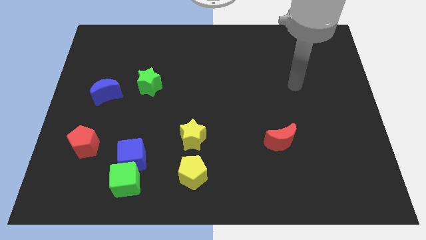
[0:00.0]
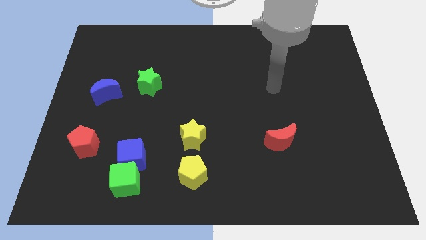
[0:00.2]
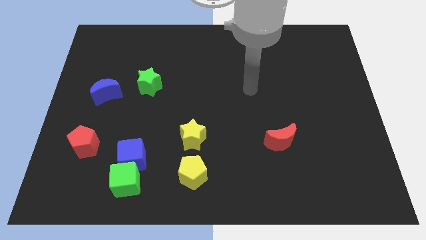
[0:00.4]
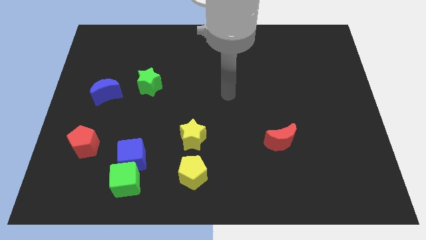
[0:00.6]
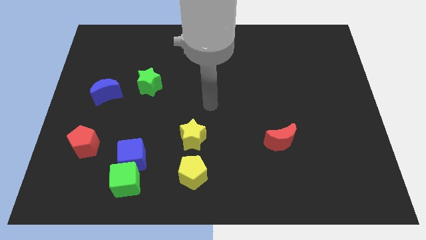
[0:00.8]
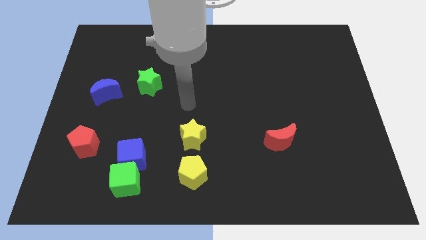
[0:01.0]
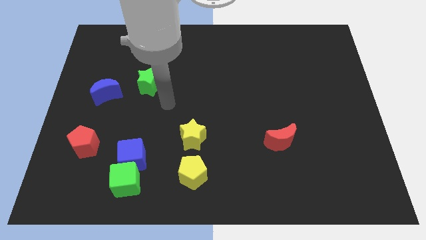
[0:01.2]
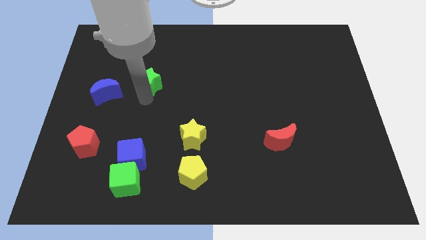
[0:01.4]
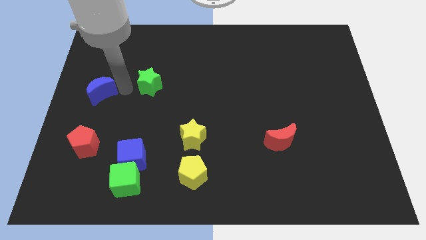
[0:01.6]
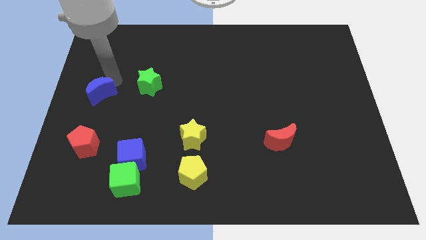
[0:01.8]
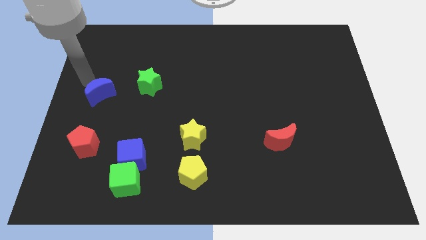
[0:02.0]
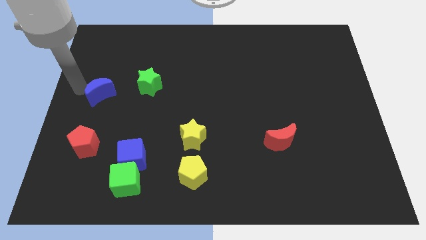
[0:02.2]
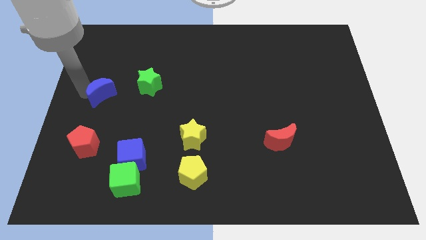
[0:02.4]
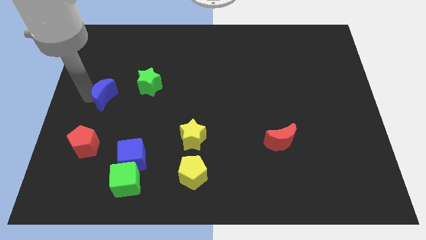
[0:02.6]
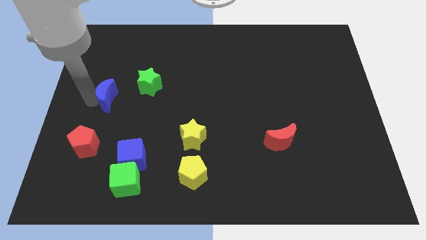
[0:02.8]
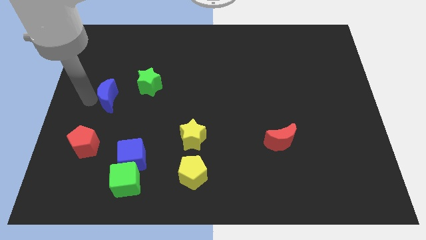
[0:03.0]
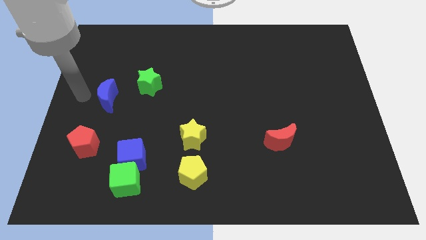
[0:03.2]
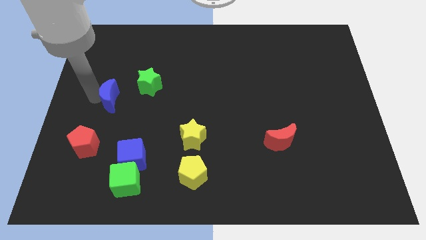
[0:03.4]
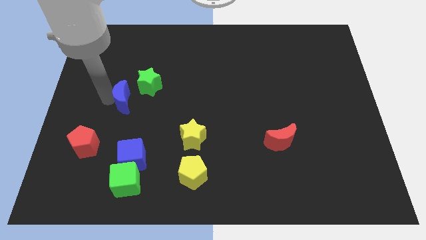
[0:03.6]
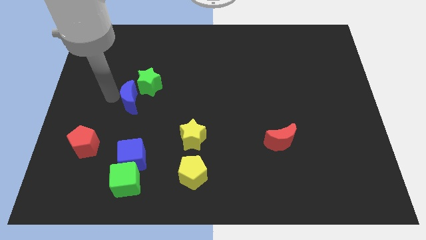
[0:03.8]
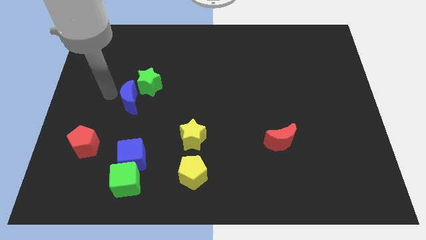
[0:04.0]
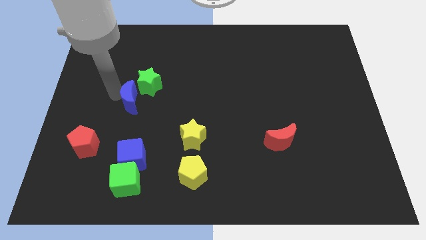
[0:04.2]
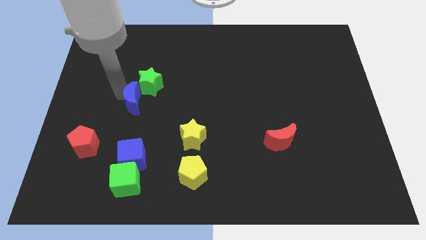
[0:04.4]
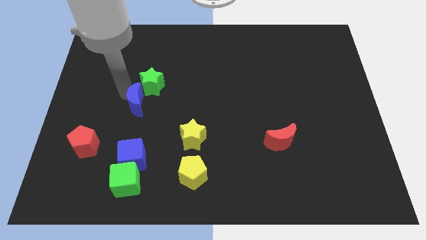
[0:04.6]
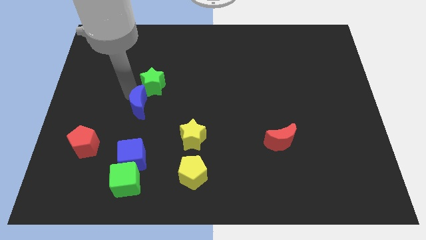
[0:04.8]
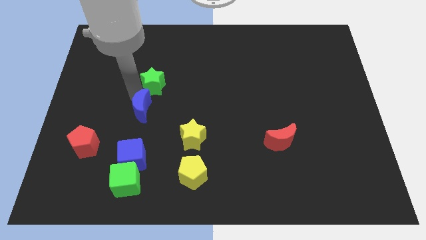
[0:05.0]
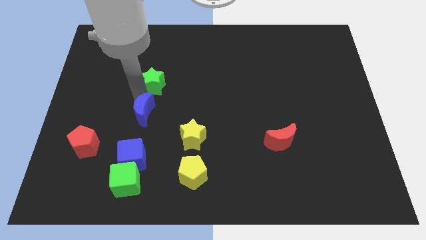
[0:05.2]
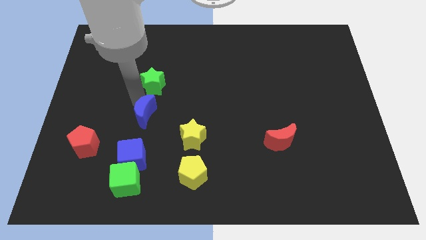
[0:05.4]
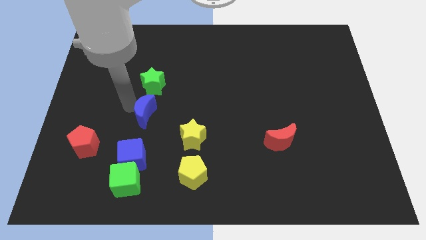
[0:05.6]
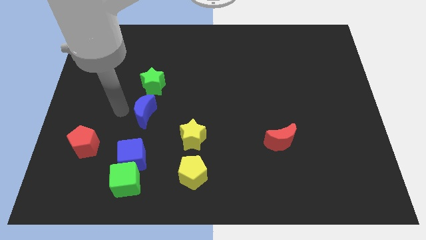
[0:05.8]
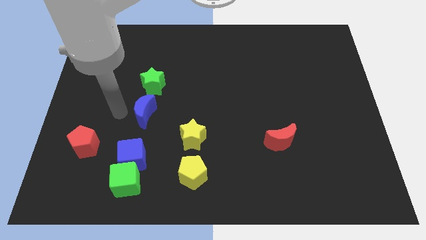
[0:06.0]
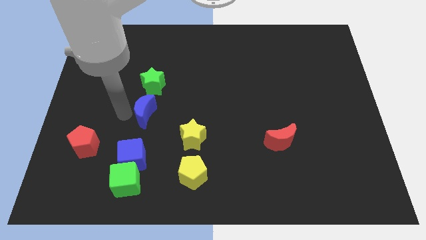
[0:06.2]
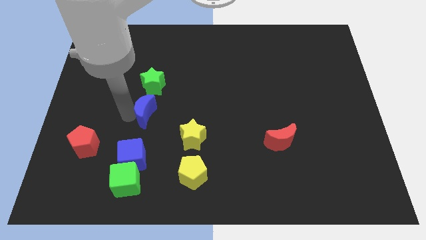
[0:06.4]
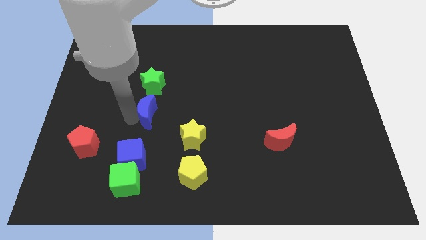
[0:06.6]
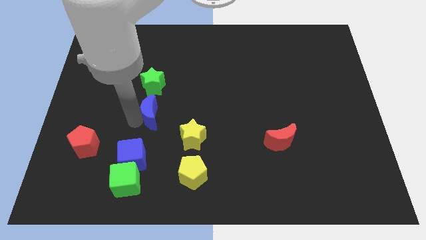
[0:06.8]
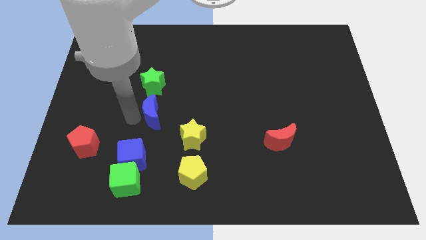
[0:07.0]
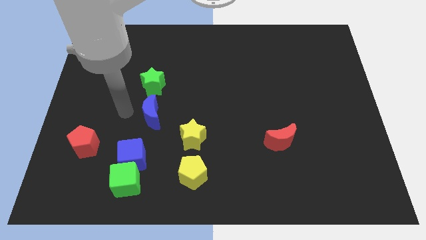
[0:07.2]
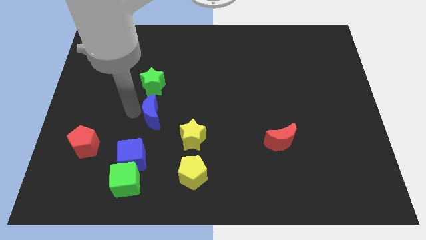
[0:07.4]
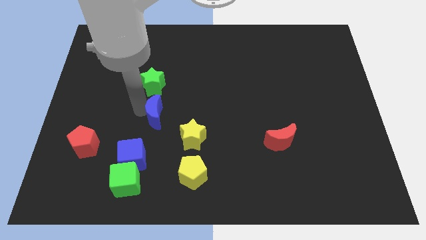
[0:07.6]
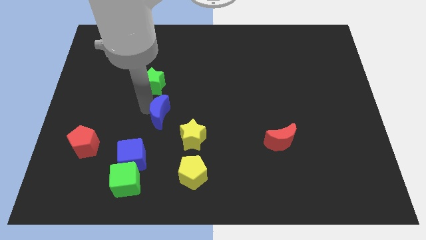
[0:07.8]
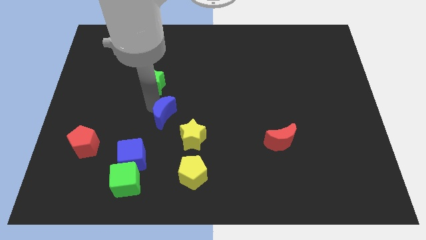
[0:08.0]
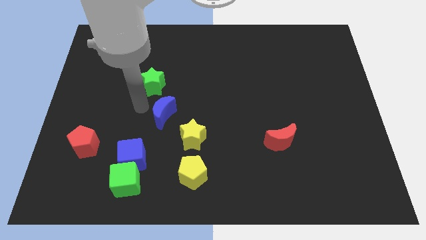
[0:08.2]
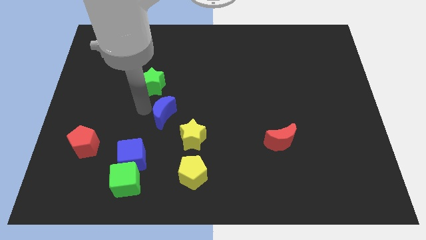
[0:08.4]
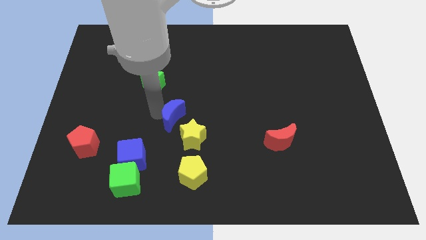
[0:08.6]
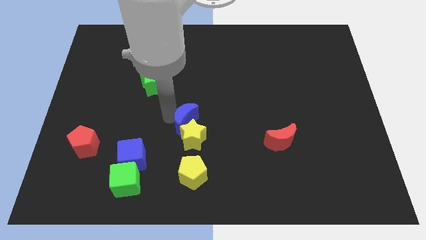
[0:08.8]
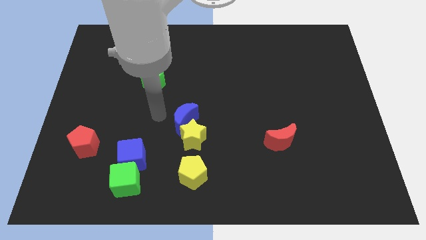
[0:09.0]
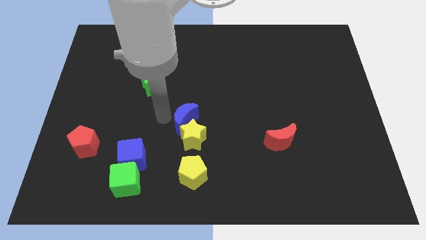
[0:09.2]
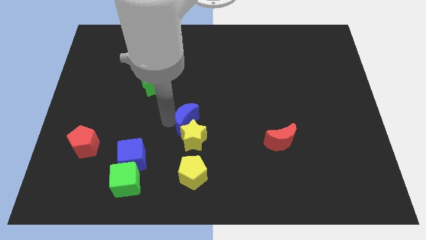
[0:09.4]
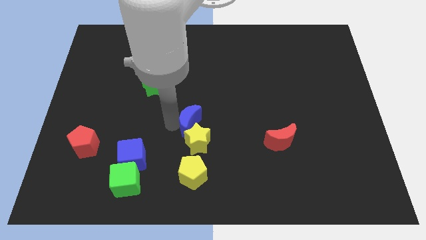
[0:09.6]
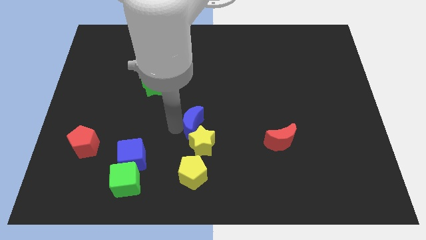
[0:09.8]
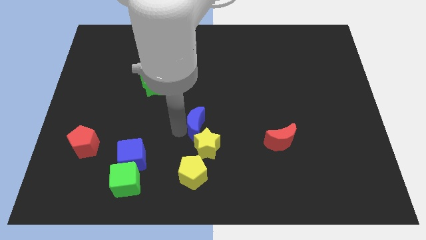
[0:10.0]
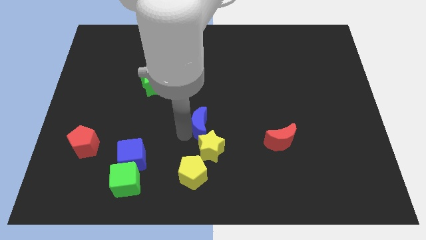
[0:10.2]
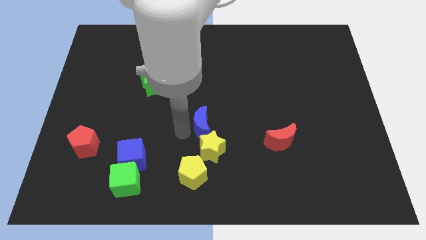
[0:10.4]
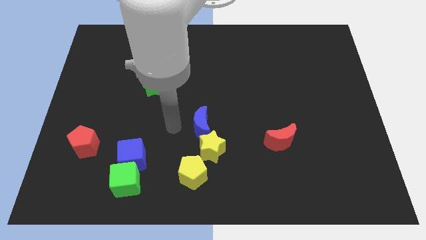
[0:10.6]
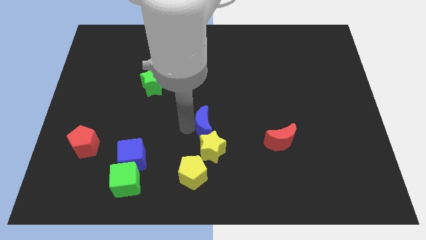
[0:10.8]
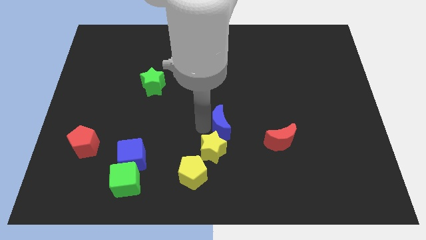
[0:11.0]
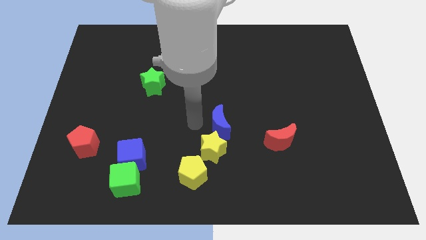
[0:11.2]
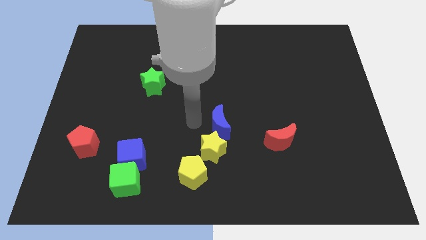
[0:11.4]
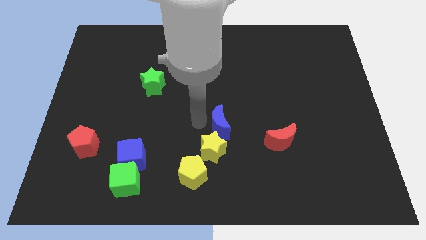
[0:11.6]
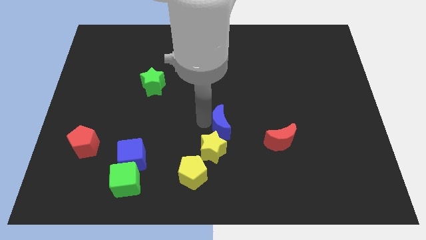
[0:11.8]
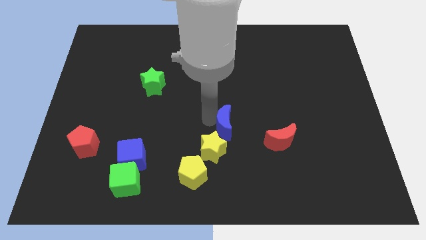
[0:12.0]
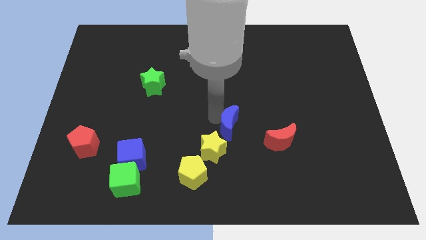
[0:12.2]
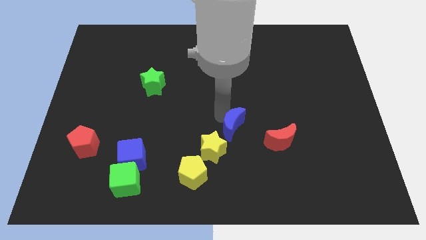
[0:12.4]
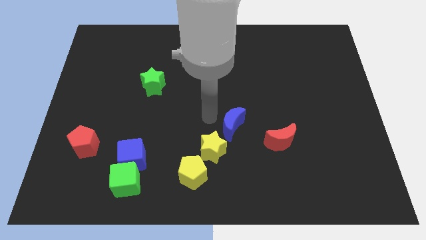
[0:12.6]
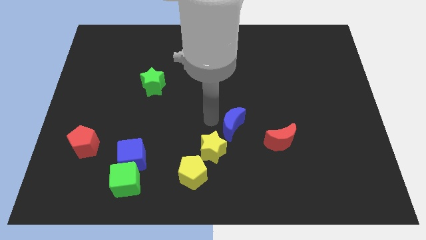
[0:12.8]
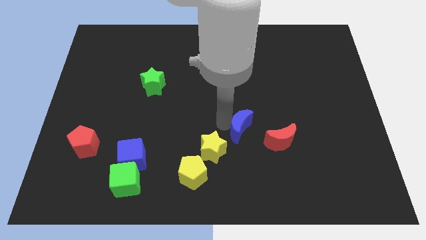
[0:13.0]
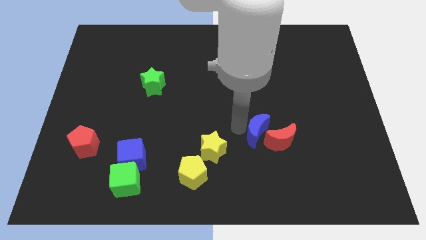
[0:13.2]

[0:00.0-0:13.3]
slide the blue moon close to the red moon
